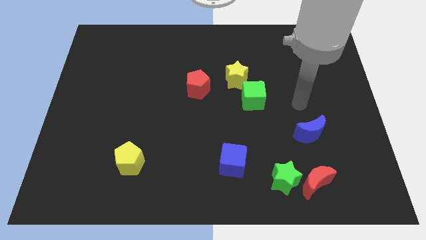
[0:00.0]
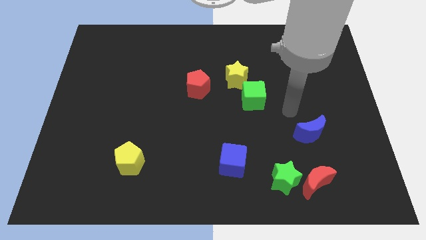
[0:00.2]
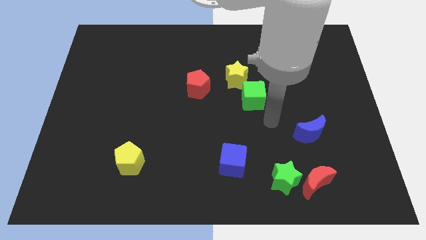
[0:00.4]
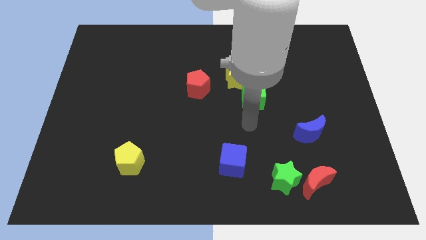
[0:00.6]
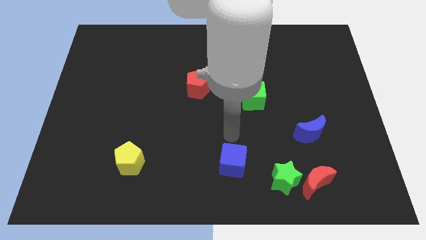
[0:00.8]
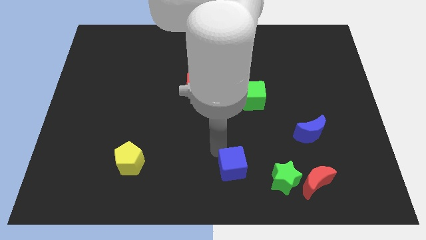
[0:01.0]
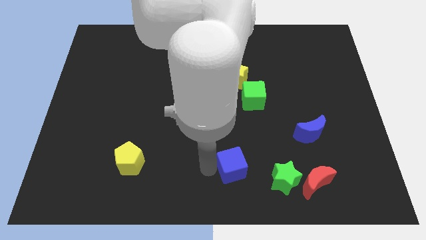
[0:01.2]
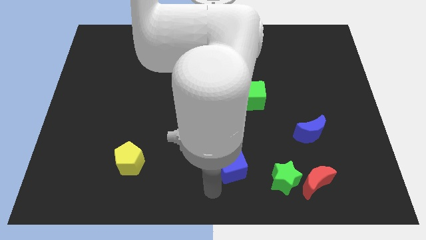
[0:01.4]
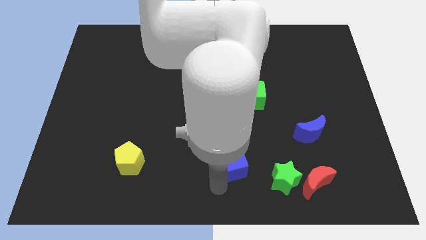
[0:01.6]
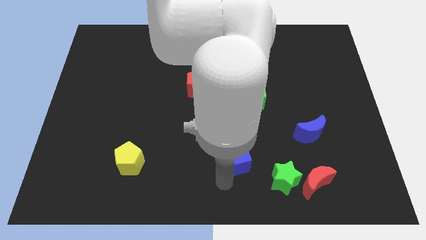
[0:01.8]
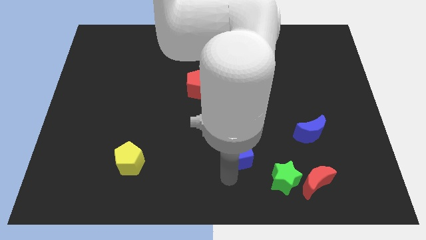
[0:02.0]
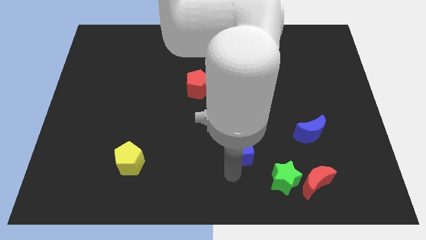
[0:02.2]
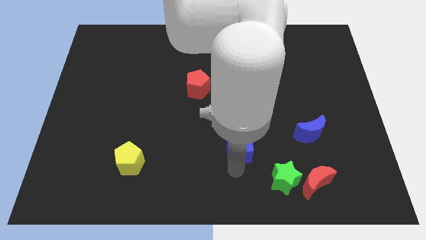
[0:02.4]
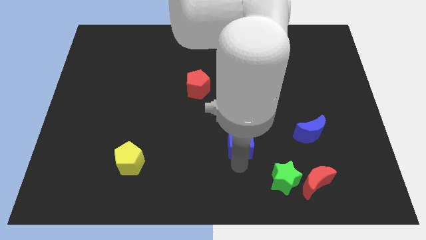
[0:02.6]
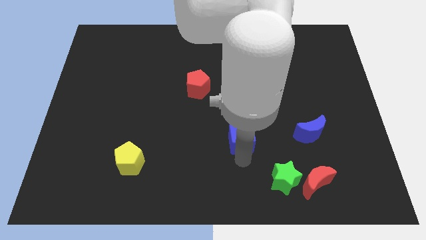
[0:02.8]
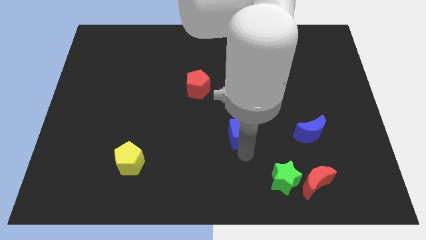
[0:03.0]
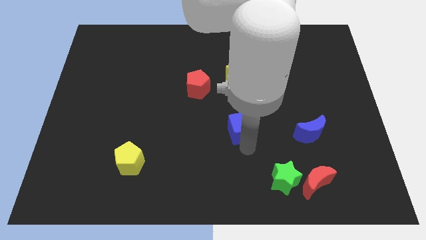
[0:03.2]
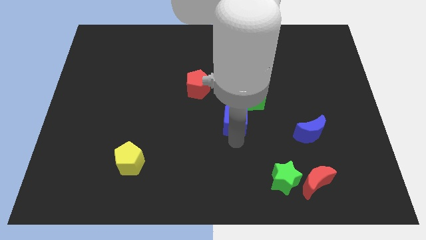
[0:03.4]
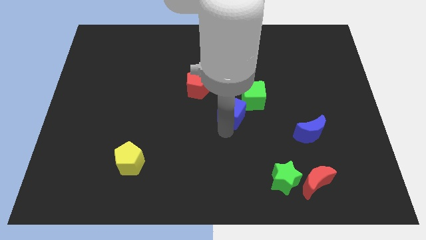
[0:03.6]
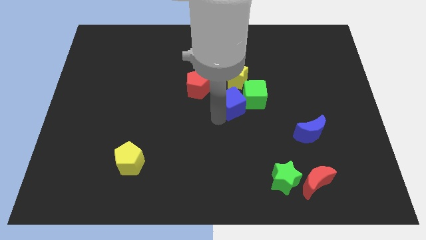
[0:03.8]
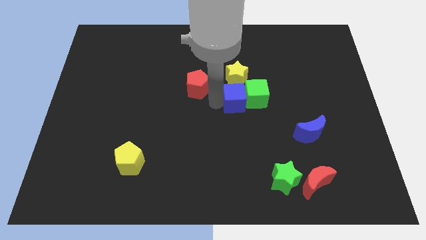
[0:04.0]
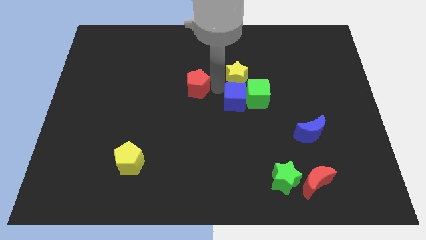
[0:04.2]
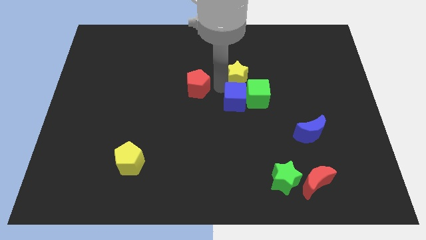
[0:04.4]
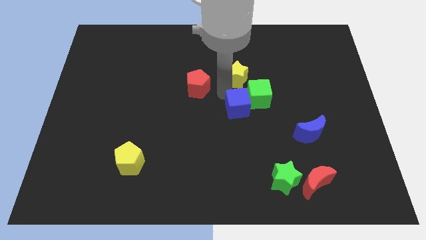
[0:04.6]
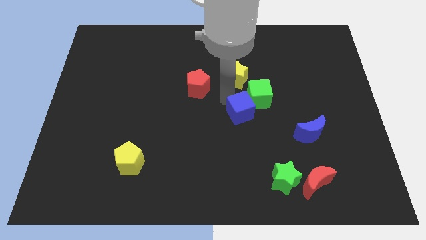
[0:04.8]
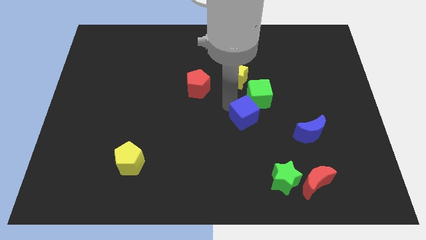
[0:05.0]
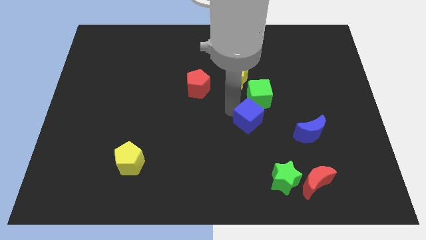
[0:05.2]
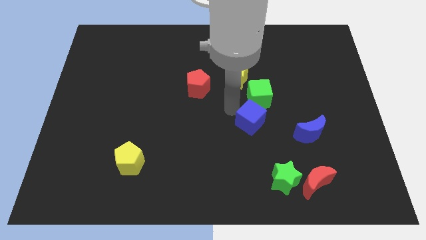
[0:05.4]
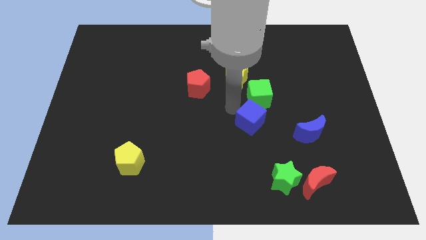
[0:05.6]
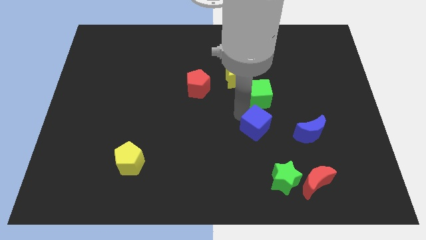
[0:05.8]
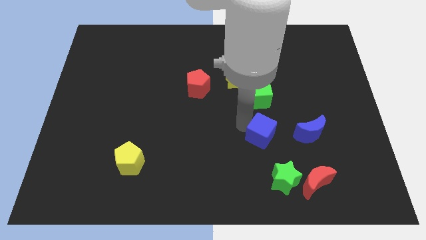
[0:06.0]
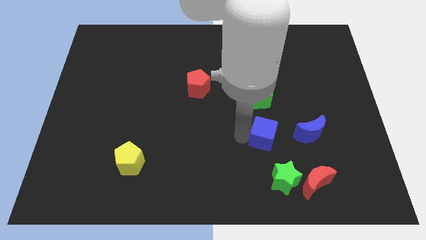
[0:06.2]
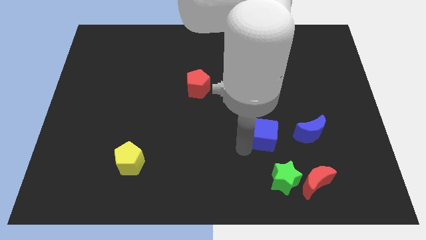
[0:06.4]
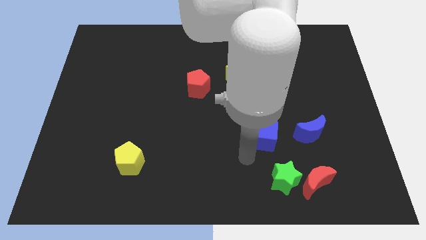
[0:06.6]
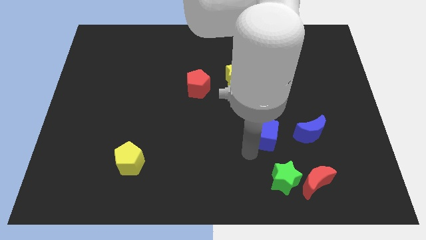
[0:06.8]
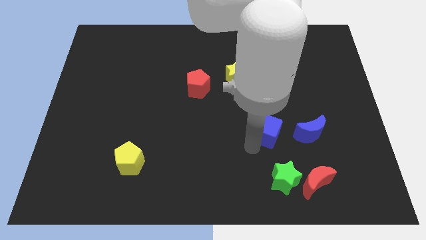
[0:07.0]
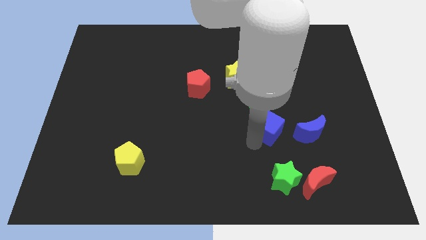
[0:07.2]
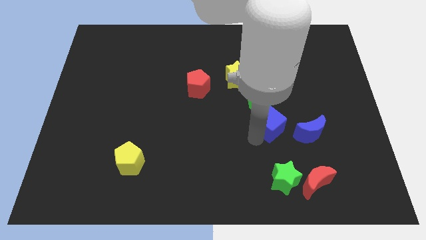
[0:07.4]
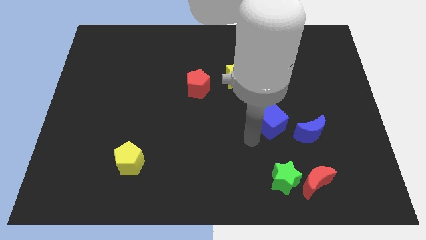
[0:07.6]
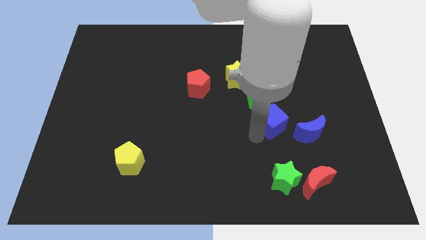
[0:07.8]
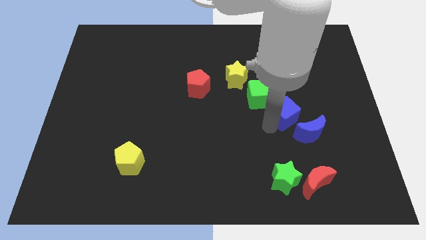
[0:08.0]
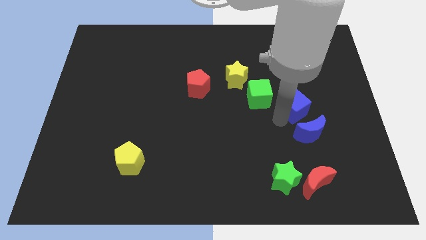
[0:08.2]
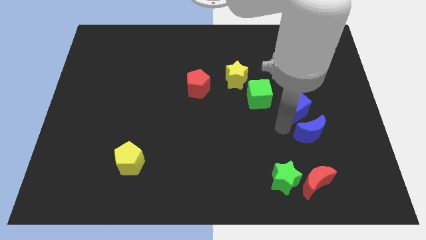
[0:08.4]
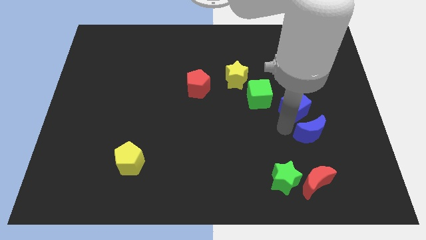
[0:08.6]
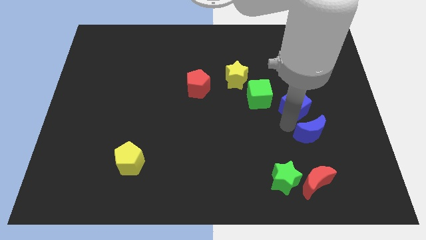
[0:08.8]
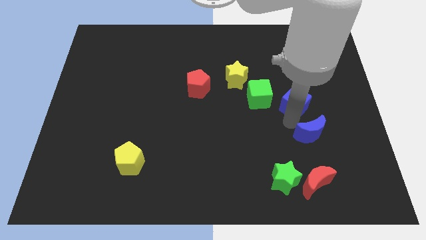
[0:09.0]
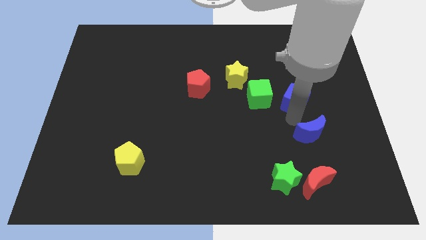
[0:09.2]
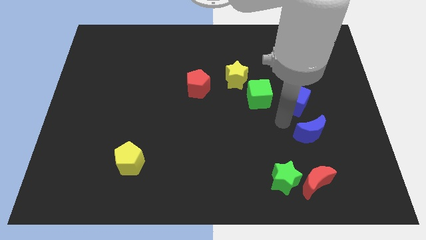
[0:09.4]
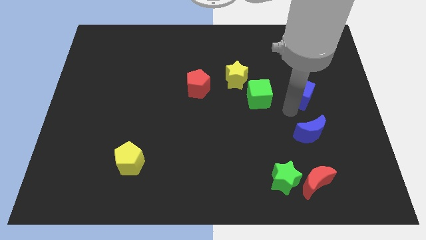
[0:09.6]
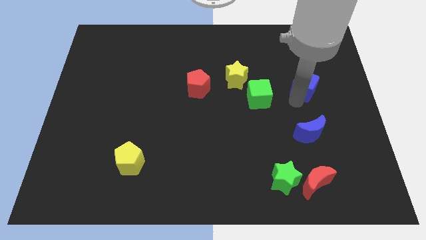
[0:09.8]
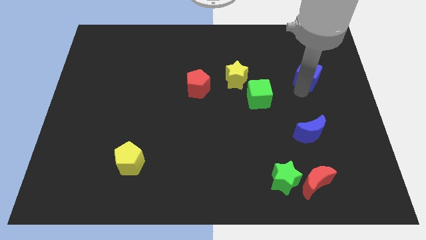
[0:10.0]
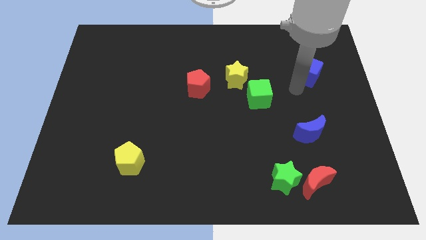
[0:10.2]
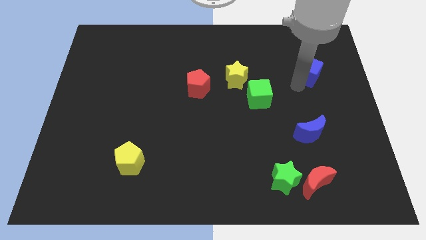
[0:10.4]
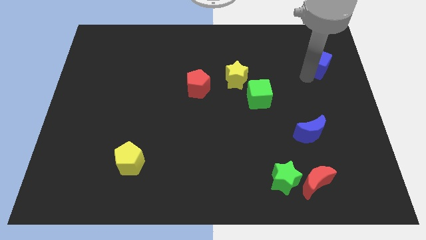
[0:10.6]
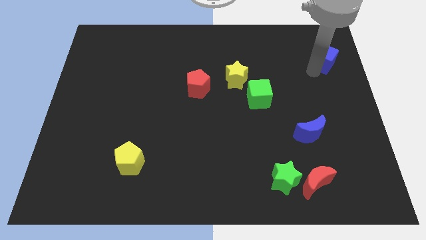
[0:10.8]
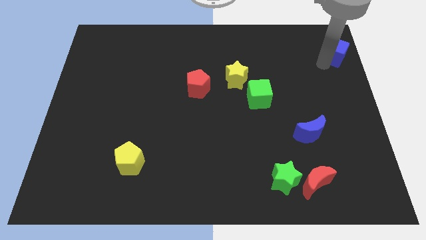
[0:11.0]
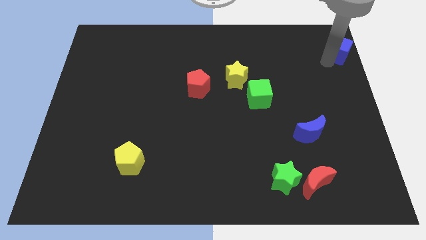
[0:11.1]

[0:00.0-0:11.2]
push the blue cube to the top right corner

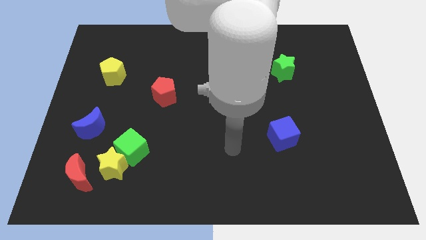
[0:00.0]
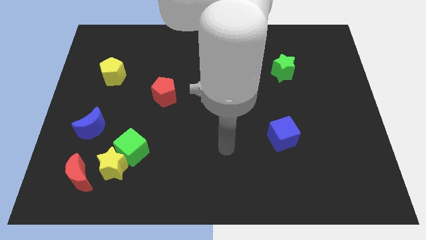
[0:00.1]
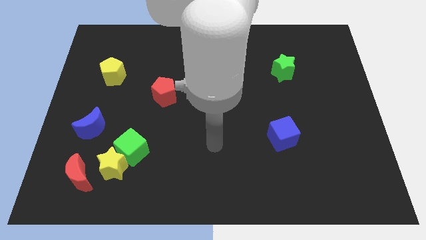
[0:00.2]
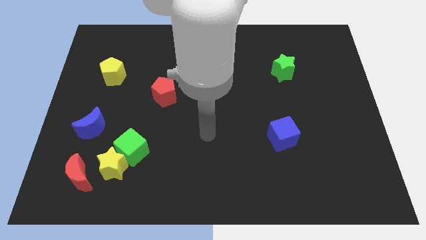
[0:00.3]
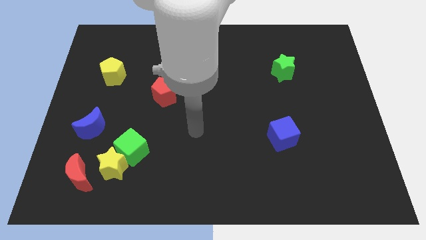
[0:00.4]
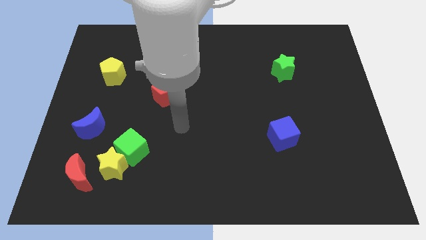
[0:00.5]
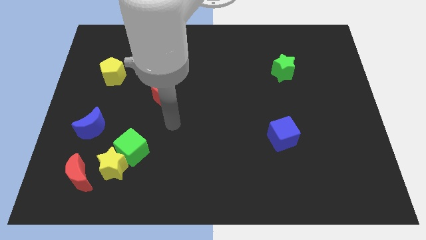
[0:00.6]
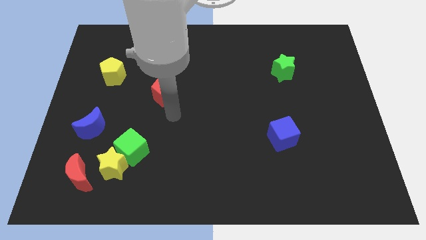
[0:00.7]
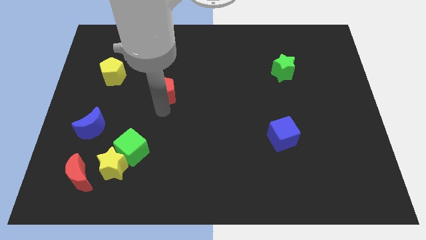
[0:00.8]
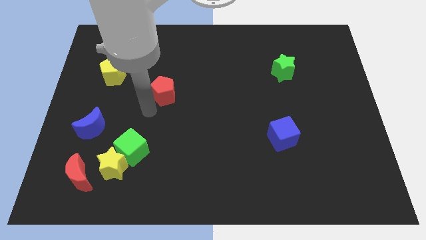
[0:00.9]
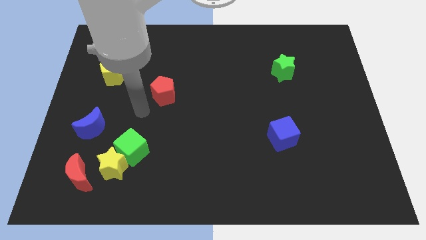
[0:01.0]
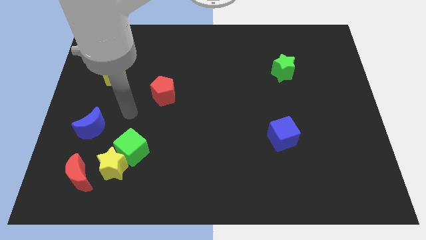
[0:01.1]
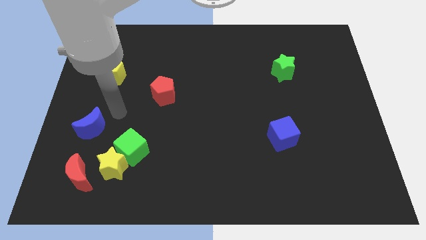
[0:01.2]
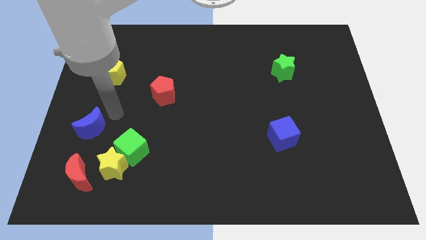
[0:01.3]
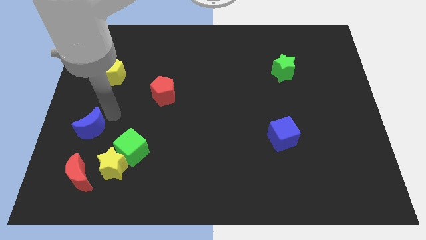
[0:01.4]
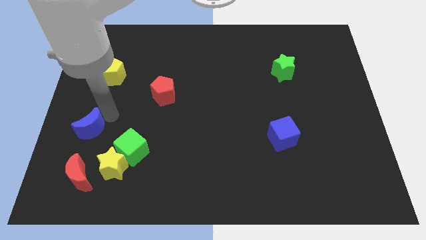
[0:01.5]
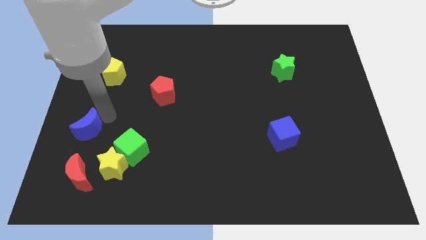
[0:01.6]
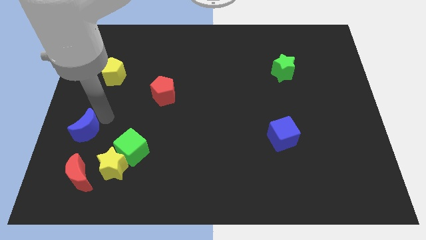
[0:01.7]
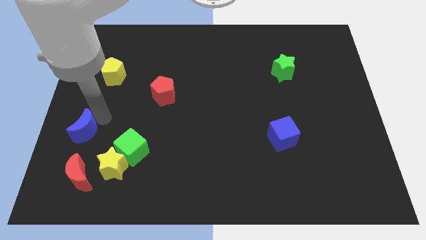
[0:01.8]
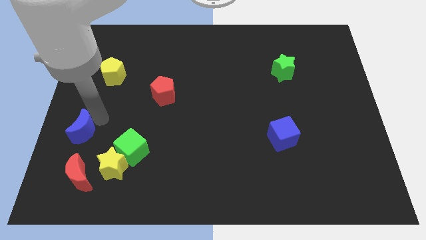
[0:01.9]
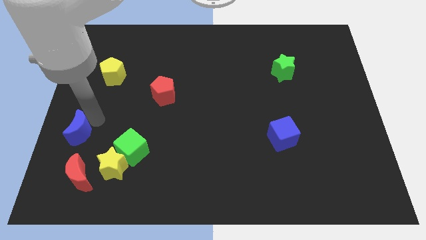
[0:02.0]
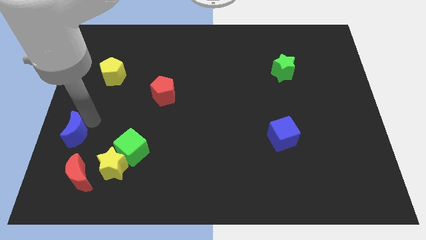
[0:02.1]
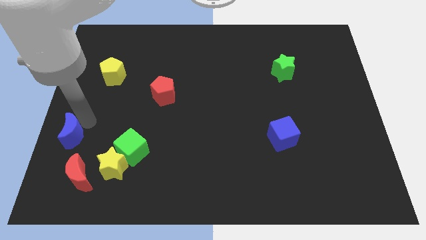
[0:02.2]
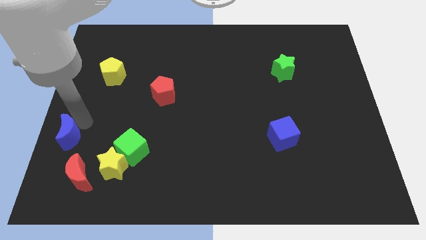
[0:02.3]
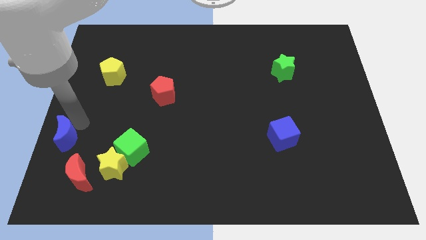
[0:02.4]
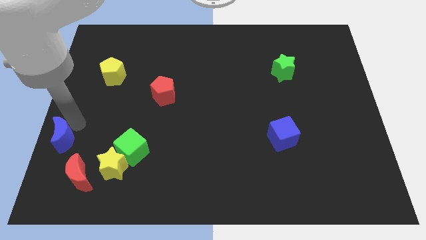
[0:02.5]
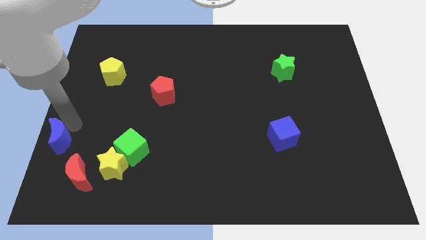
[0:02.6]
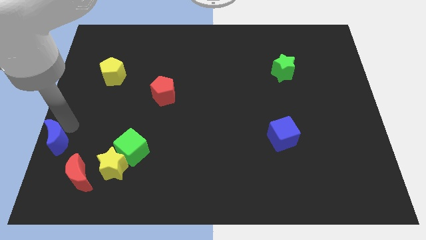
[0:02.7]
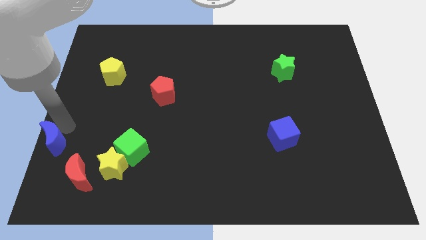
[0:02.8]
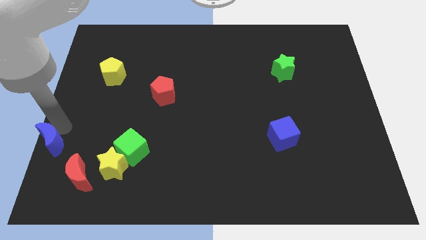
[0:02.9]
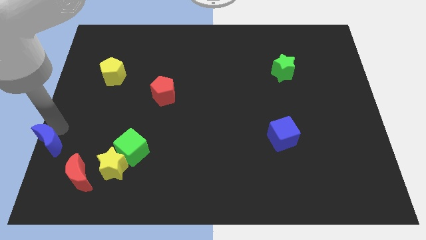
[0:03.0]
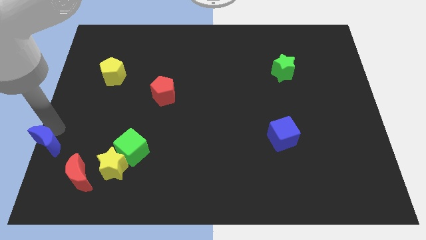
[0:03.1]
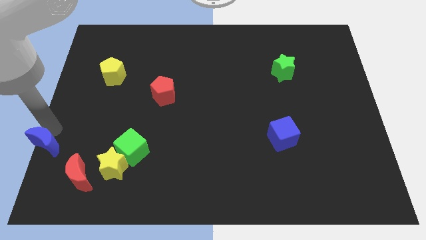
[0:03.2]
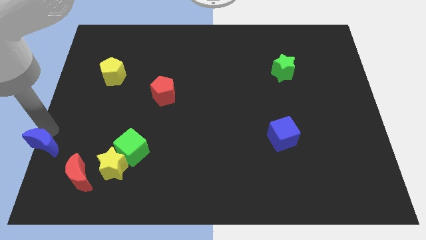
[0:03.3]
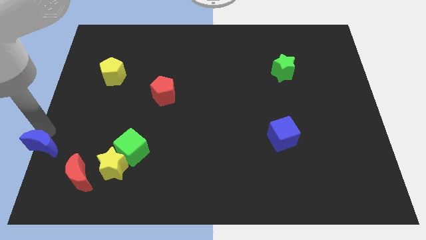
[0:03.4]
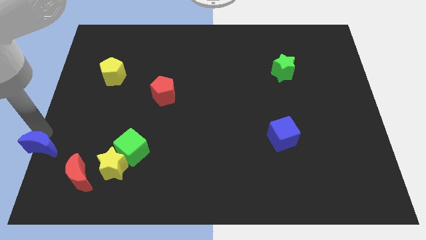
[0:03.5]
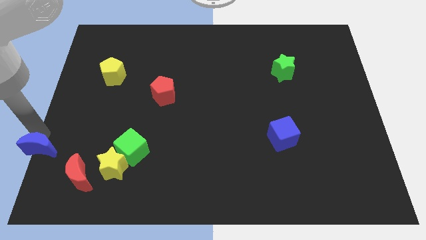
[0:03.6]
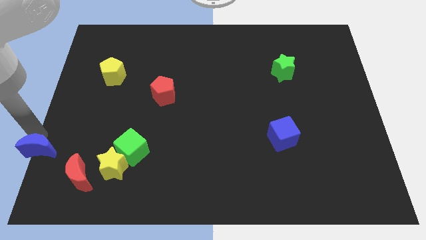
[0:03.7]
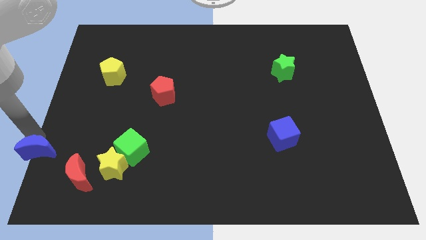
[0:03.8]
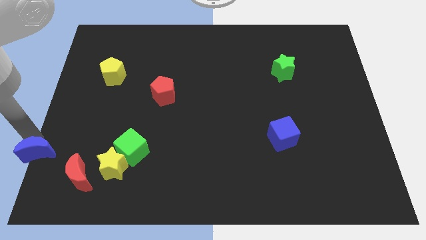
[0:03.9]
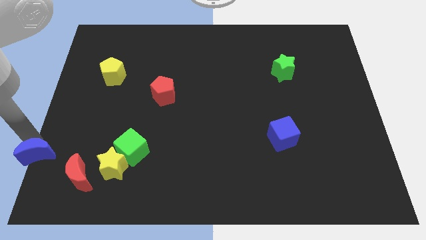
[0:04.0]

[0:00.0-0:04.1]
push the blue moon to the bottom left corner
